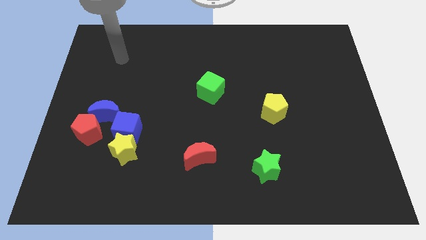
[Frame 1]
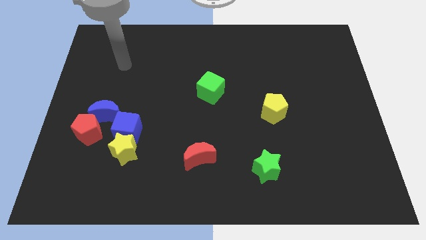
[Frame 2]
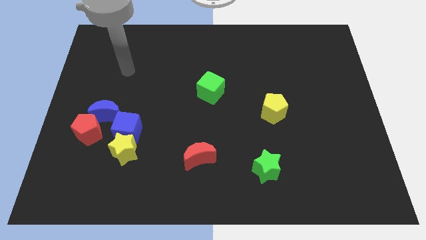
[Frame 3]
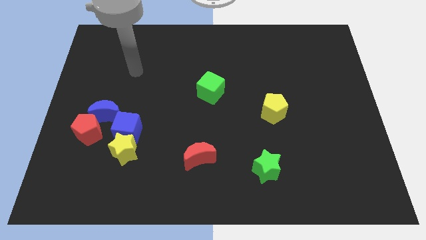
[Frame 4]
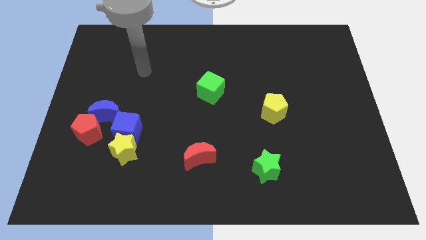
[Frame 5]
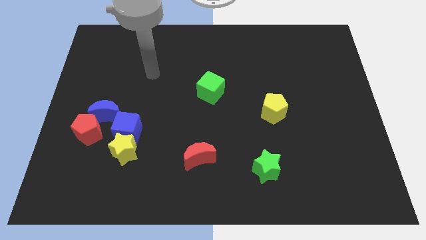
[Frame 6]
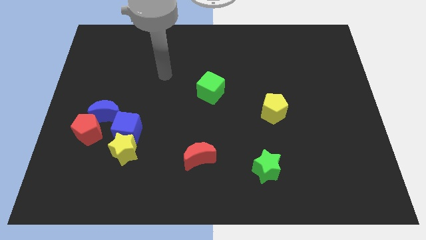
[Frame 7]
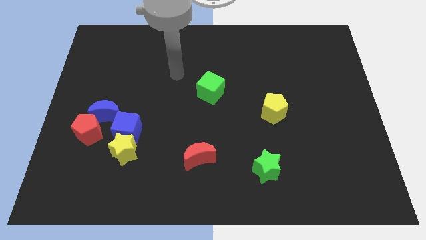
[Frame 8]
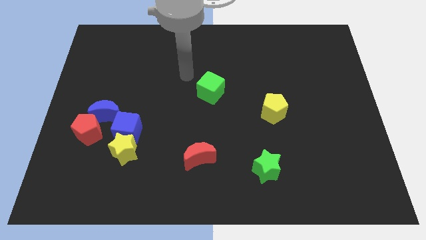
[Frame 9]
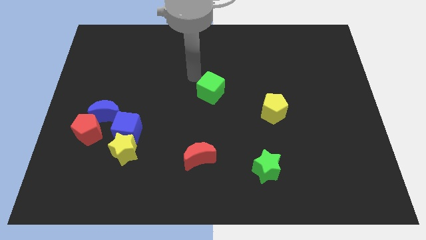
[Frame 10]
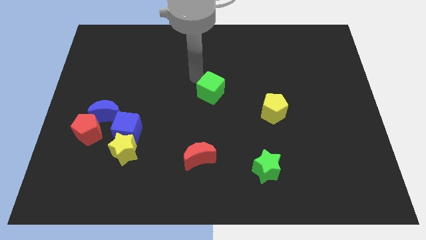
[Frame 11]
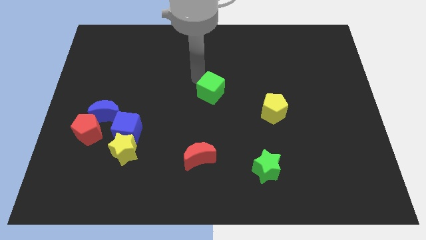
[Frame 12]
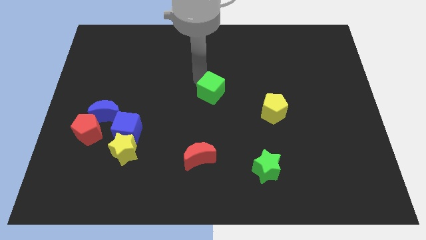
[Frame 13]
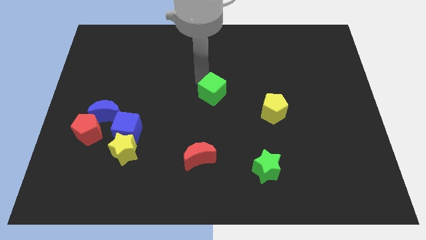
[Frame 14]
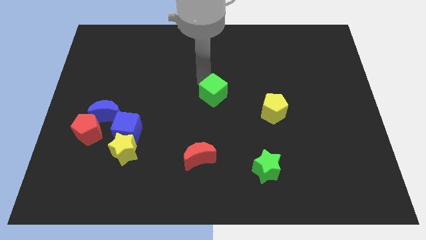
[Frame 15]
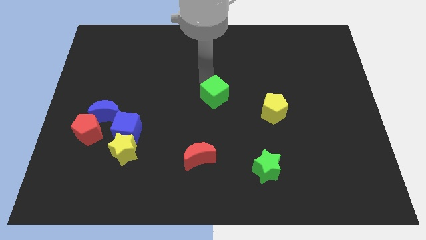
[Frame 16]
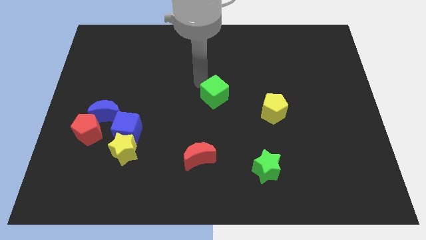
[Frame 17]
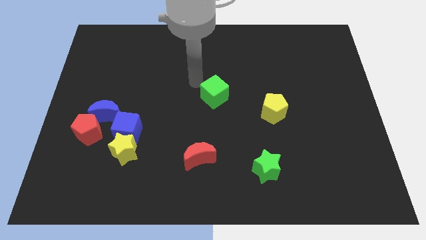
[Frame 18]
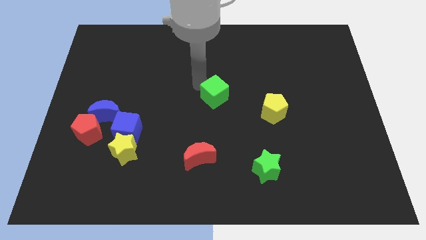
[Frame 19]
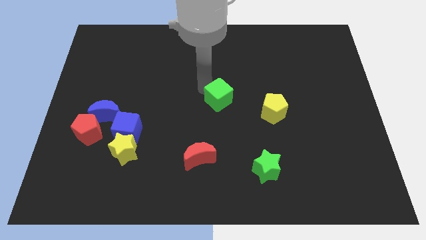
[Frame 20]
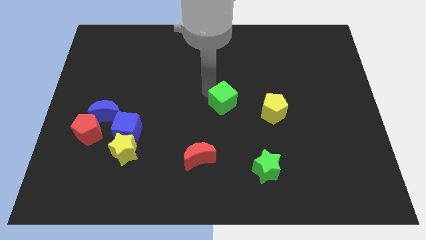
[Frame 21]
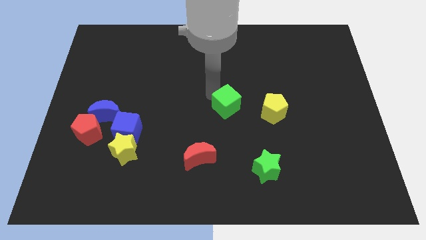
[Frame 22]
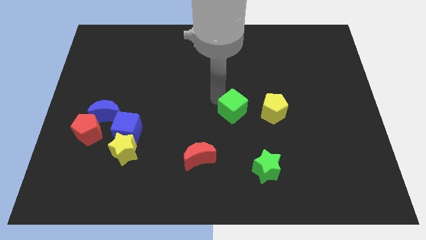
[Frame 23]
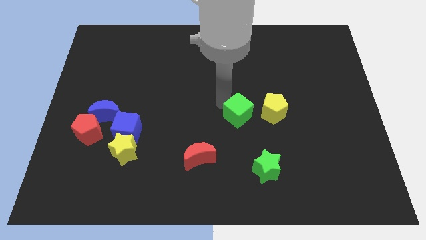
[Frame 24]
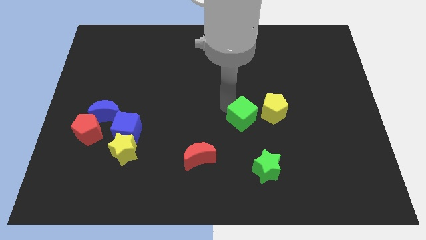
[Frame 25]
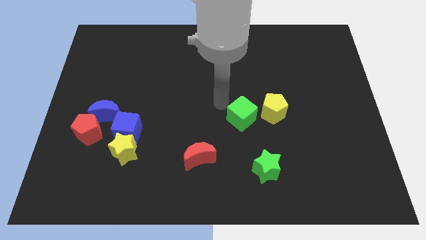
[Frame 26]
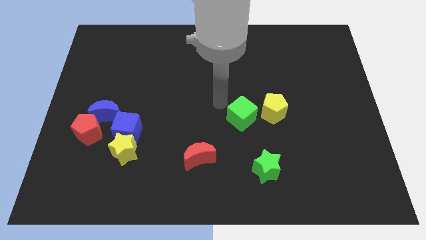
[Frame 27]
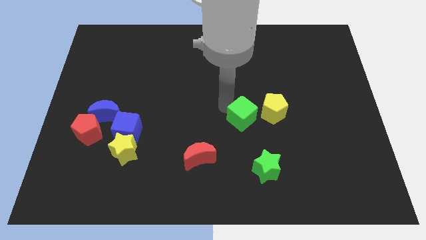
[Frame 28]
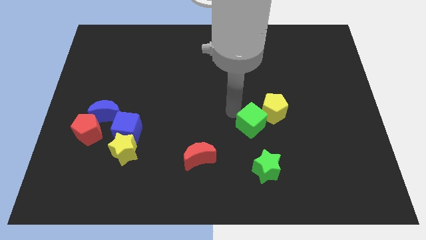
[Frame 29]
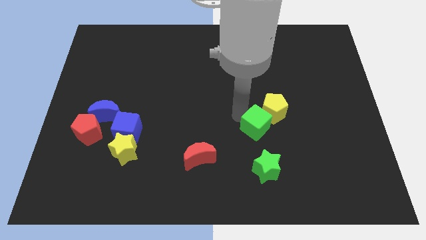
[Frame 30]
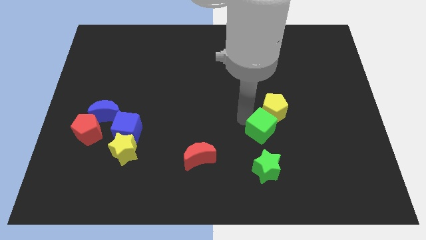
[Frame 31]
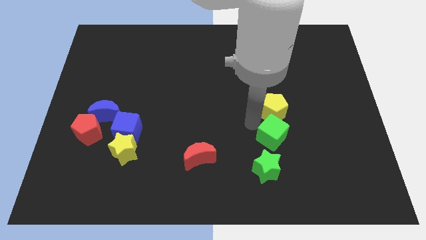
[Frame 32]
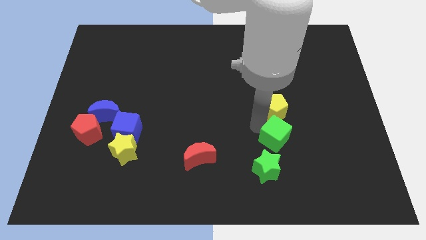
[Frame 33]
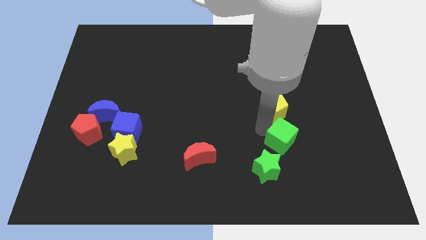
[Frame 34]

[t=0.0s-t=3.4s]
push the green cube diagonally downwards and right

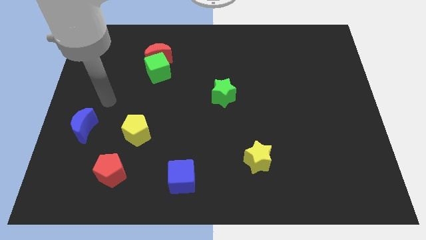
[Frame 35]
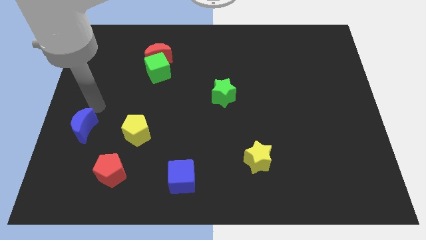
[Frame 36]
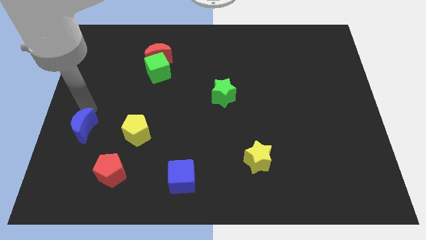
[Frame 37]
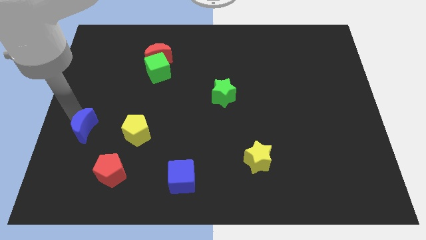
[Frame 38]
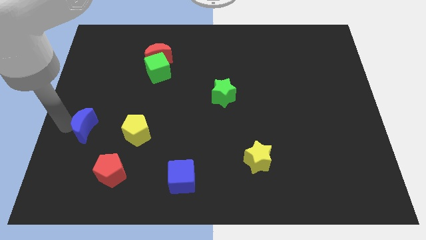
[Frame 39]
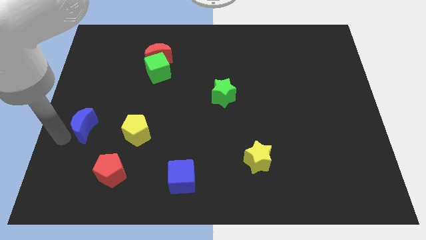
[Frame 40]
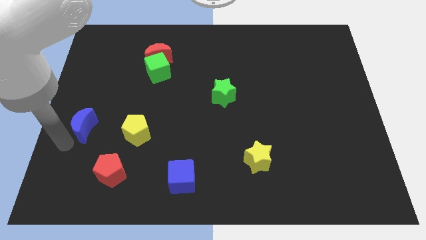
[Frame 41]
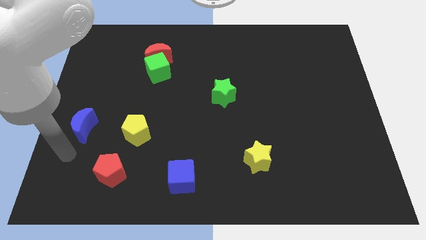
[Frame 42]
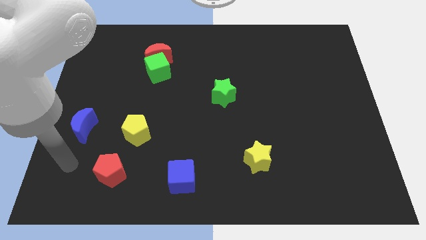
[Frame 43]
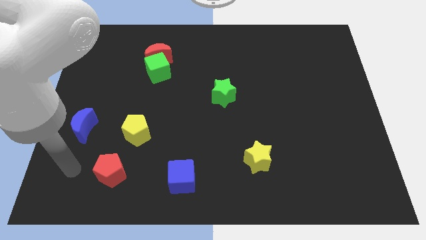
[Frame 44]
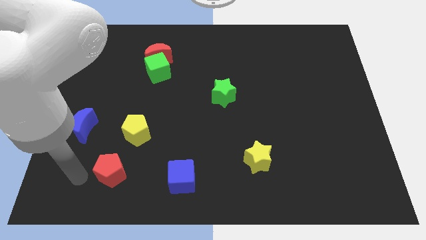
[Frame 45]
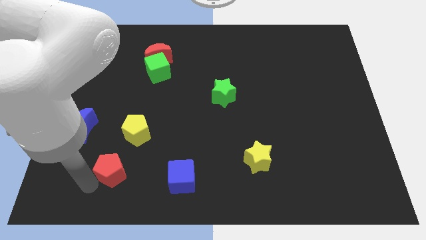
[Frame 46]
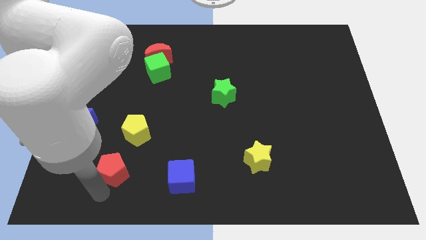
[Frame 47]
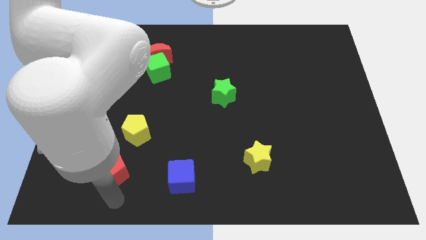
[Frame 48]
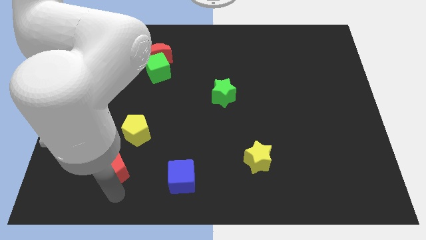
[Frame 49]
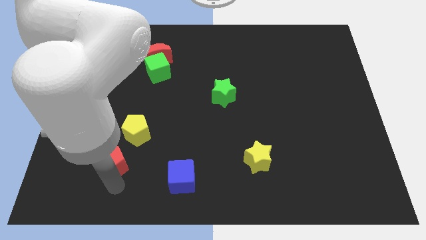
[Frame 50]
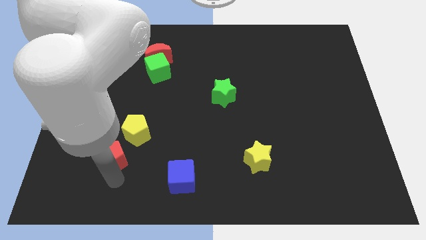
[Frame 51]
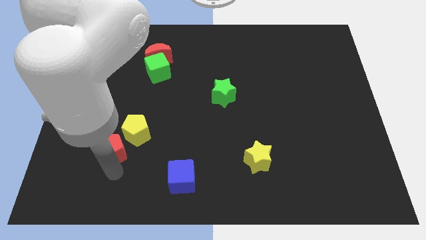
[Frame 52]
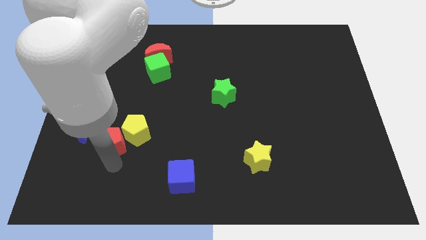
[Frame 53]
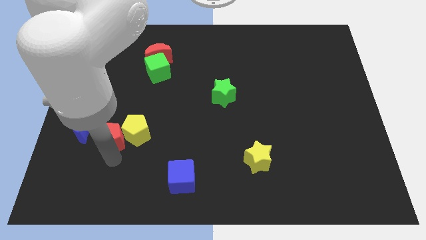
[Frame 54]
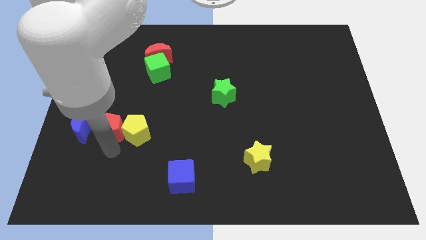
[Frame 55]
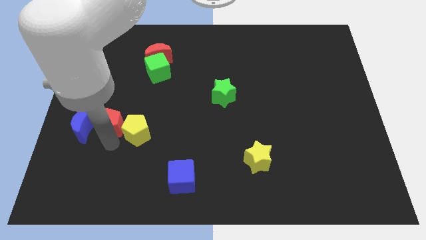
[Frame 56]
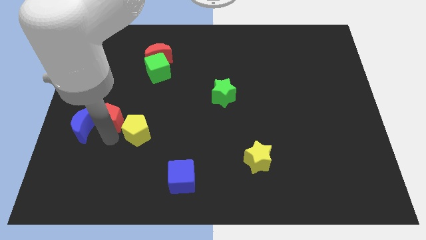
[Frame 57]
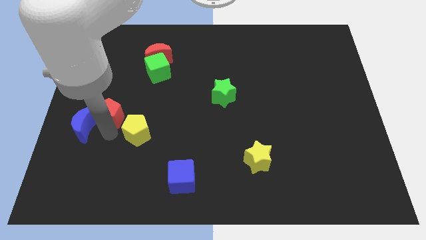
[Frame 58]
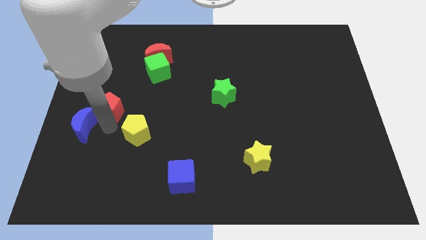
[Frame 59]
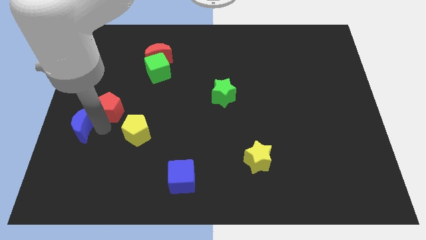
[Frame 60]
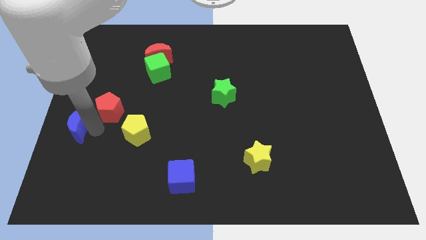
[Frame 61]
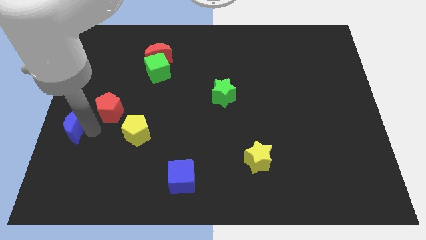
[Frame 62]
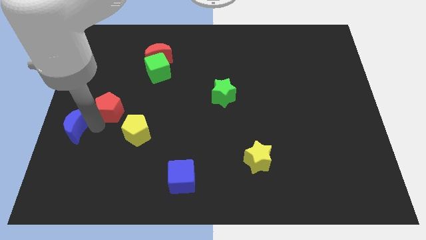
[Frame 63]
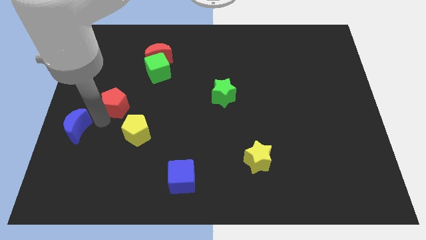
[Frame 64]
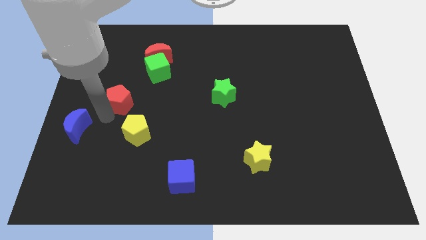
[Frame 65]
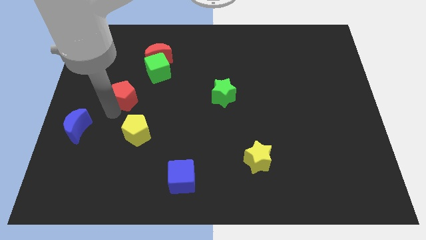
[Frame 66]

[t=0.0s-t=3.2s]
push the red pentagon up

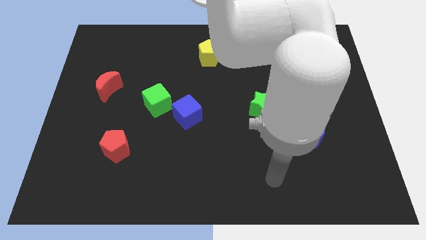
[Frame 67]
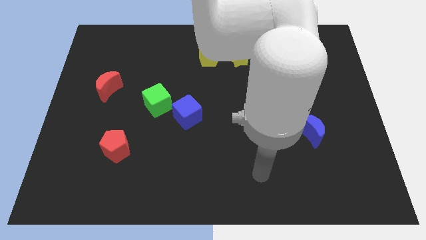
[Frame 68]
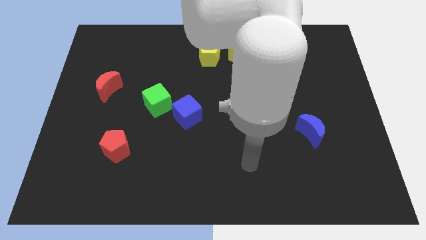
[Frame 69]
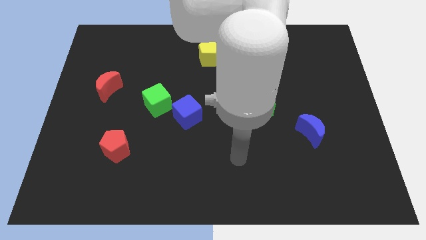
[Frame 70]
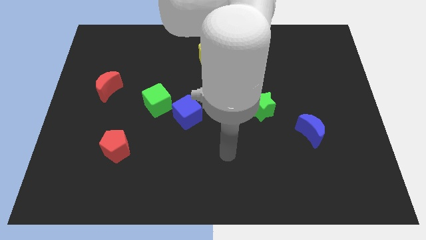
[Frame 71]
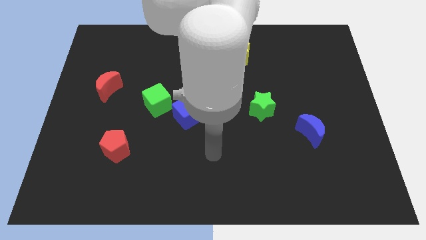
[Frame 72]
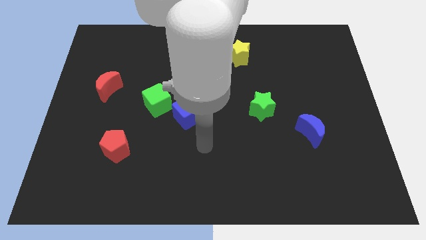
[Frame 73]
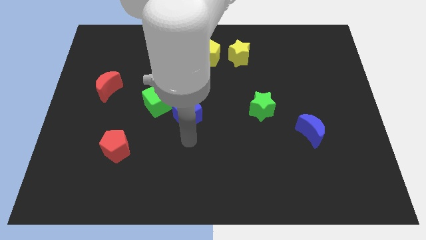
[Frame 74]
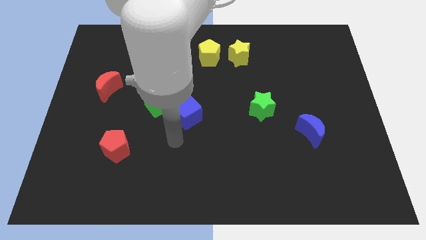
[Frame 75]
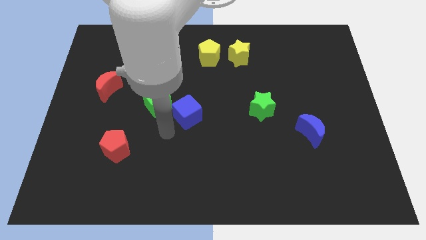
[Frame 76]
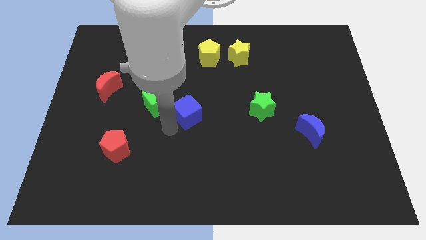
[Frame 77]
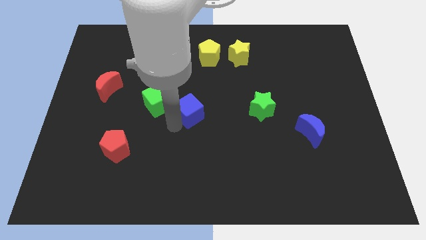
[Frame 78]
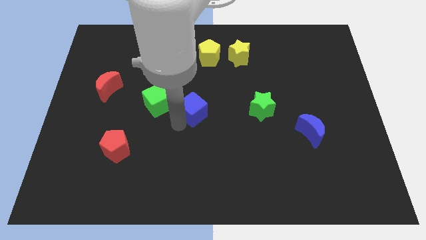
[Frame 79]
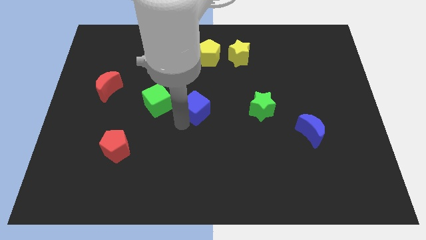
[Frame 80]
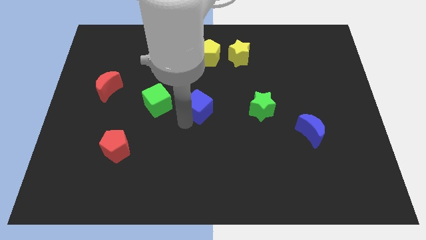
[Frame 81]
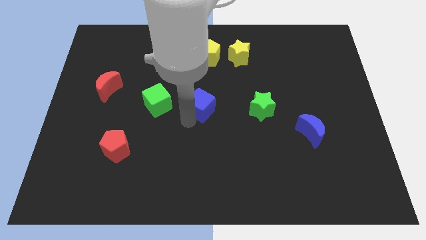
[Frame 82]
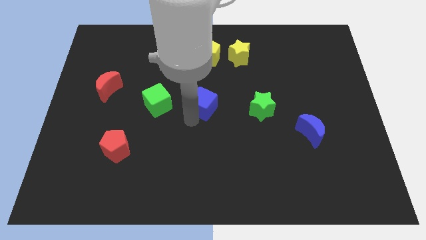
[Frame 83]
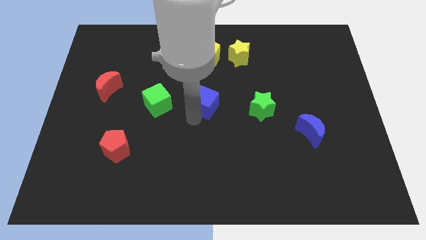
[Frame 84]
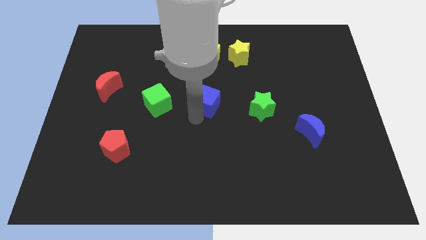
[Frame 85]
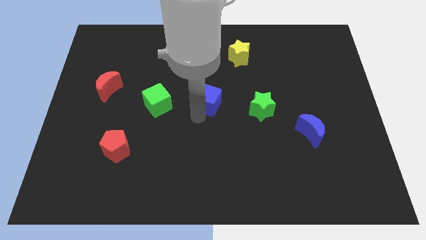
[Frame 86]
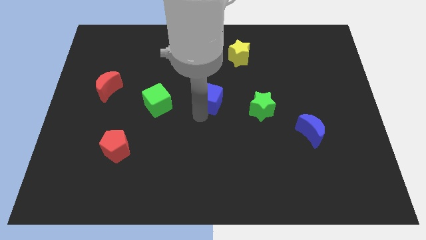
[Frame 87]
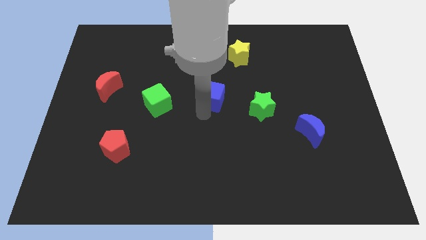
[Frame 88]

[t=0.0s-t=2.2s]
slide the blue cube a bit upwards and to the right
